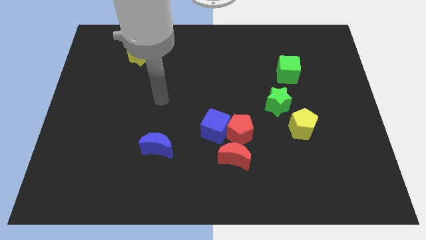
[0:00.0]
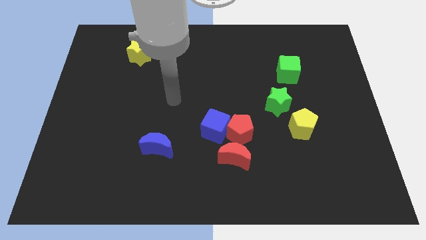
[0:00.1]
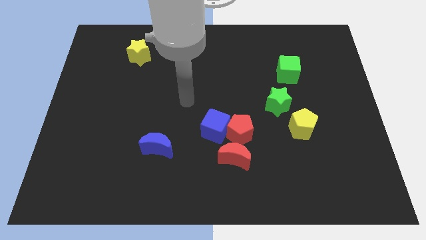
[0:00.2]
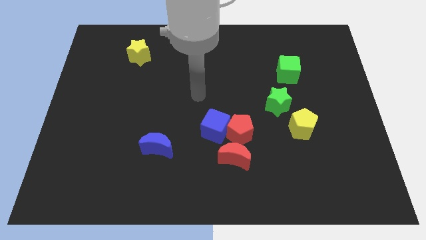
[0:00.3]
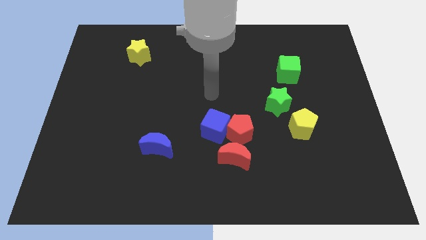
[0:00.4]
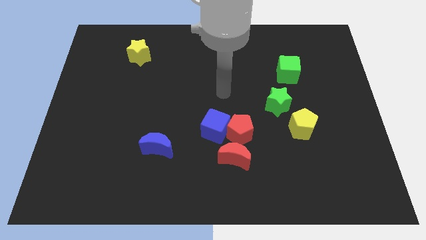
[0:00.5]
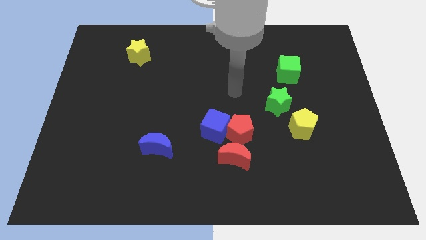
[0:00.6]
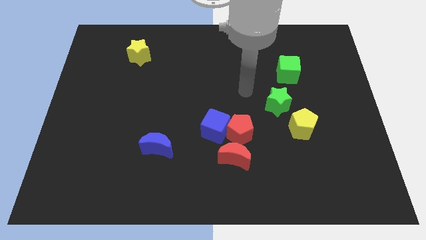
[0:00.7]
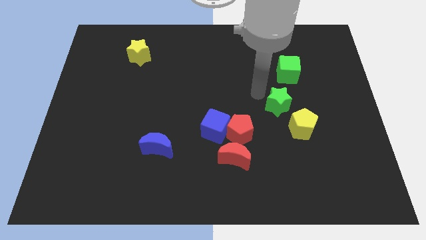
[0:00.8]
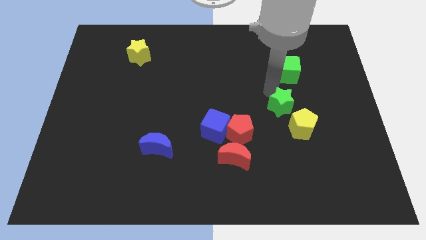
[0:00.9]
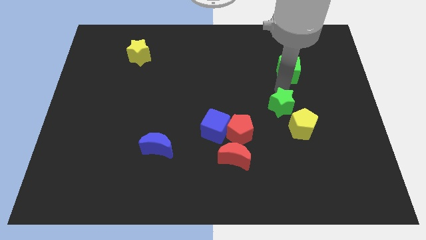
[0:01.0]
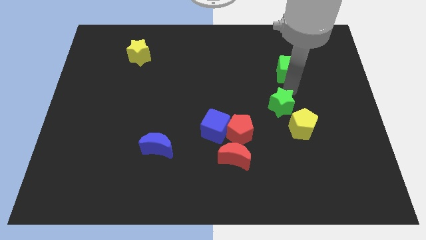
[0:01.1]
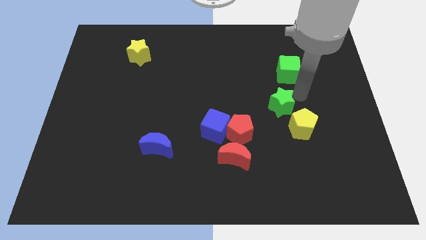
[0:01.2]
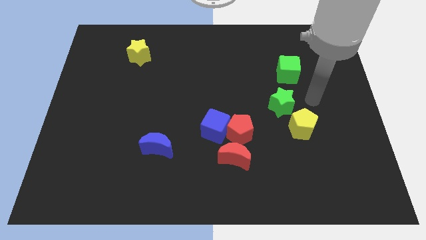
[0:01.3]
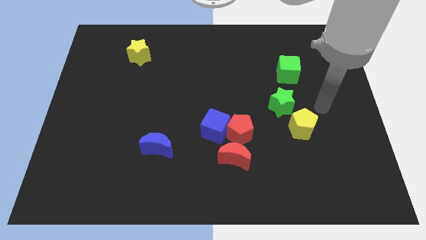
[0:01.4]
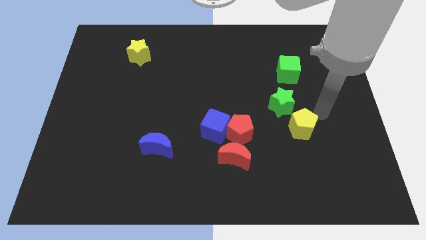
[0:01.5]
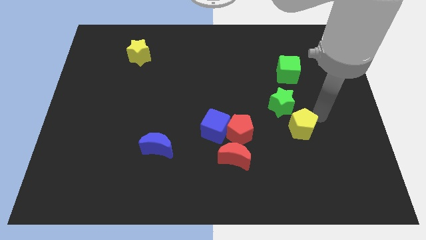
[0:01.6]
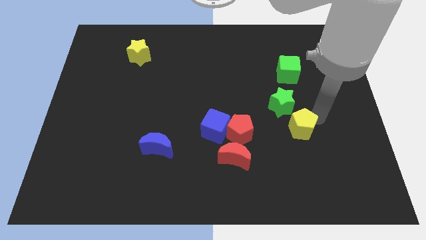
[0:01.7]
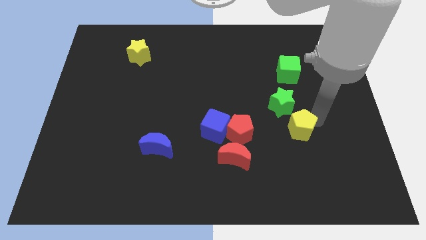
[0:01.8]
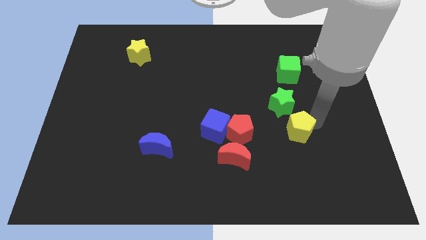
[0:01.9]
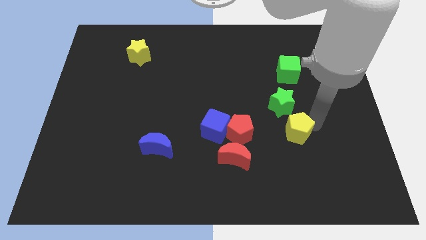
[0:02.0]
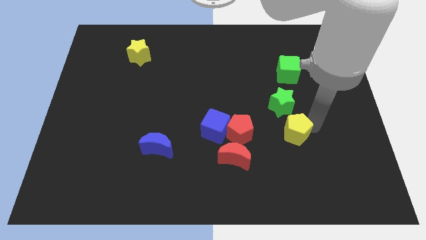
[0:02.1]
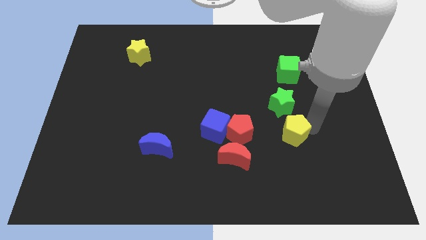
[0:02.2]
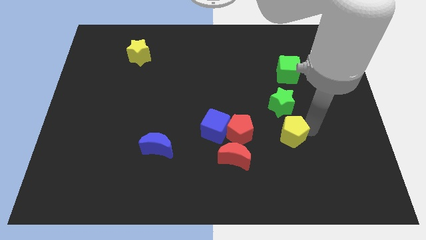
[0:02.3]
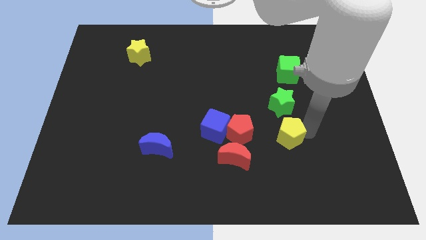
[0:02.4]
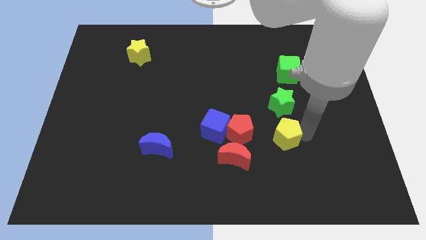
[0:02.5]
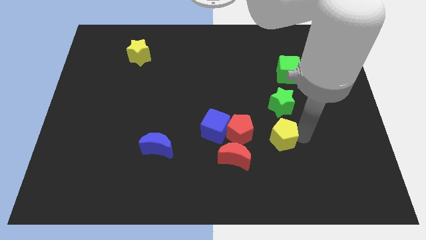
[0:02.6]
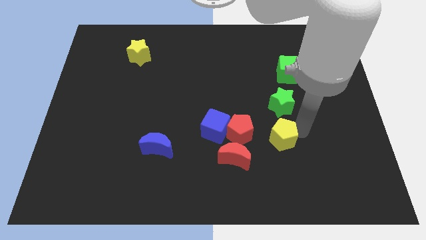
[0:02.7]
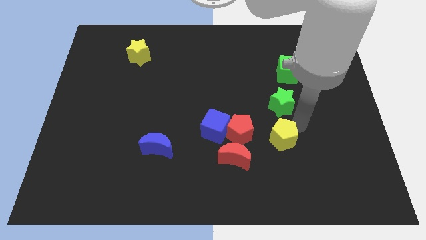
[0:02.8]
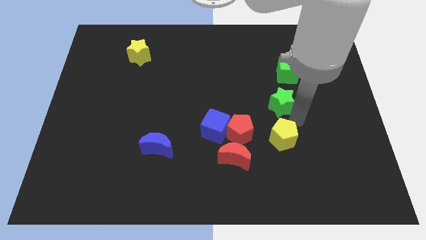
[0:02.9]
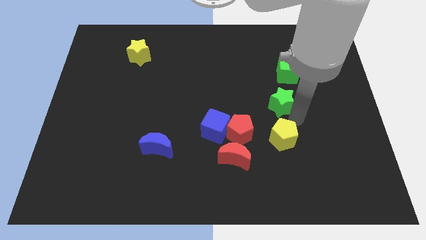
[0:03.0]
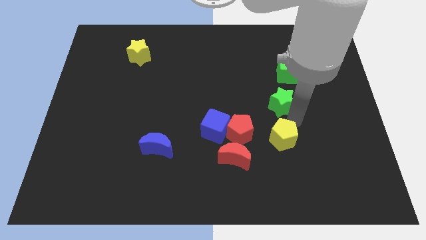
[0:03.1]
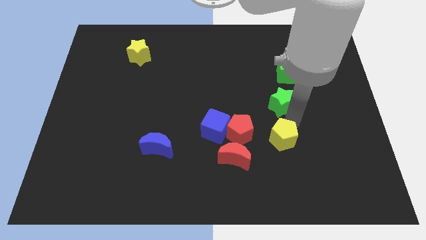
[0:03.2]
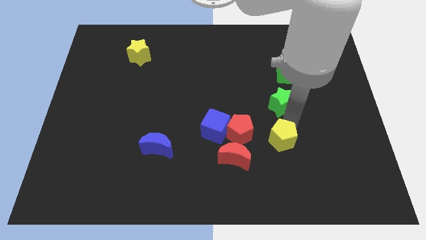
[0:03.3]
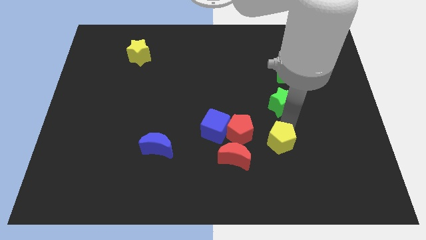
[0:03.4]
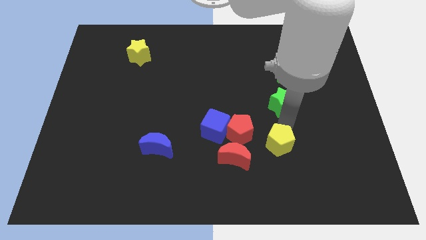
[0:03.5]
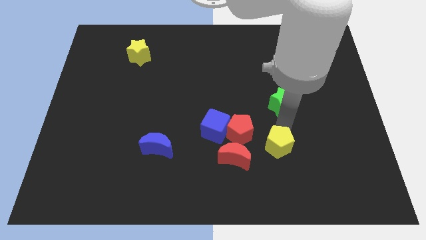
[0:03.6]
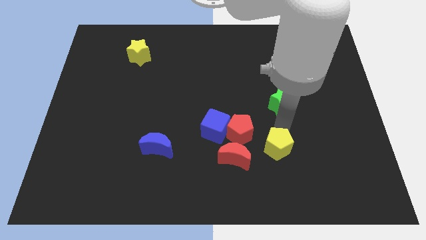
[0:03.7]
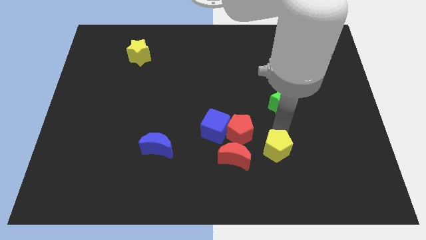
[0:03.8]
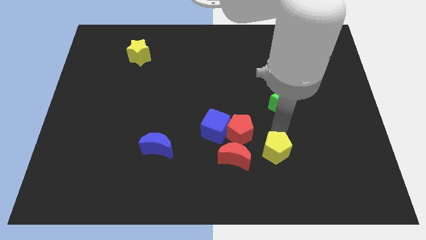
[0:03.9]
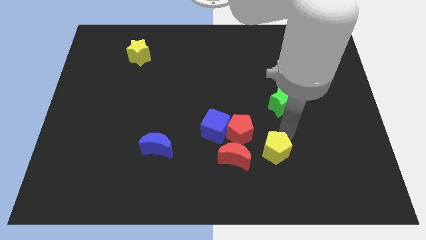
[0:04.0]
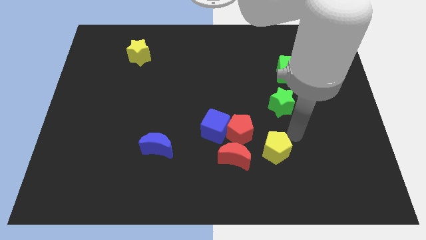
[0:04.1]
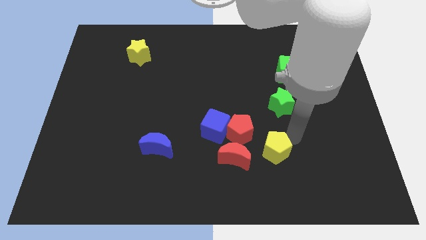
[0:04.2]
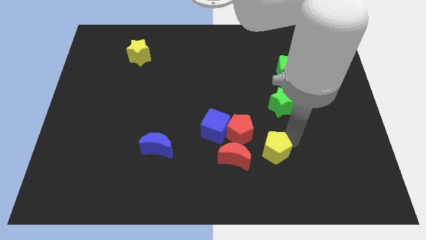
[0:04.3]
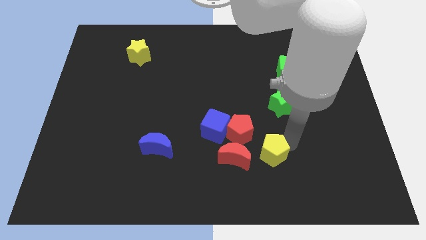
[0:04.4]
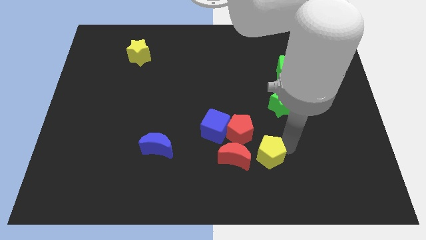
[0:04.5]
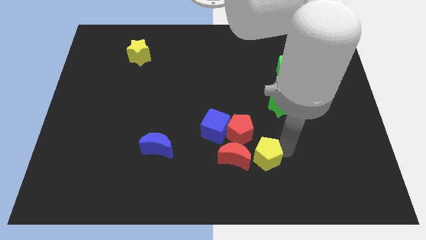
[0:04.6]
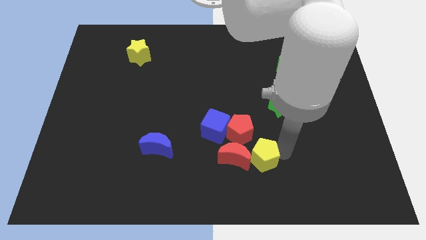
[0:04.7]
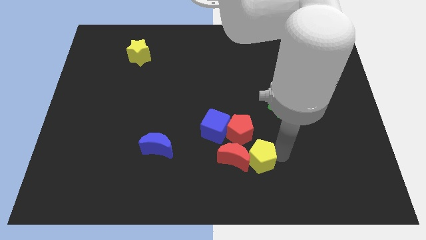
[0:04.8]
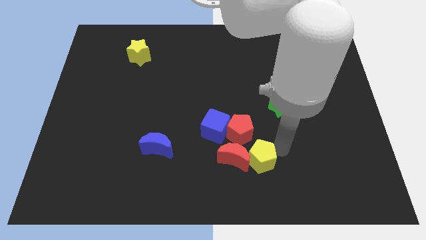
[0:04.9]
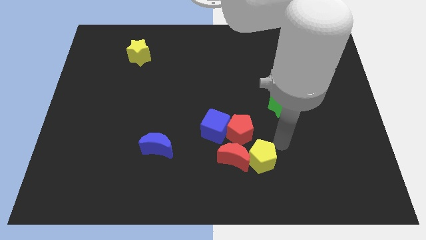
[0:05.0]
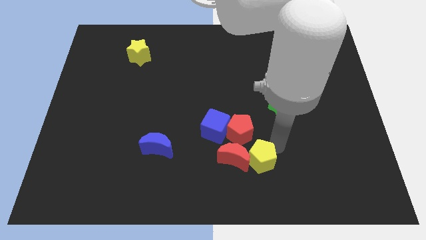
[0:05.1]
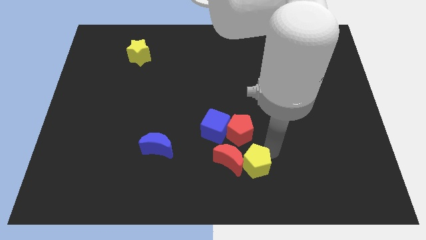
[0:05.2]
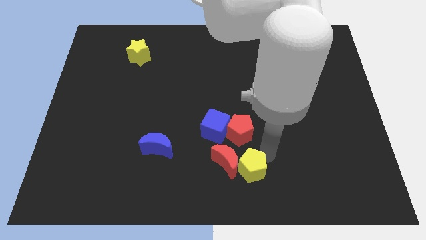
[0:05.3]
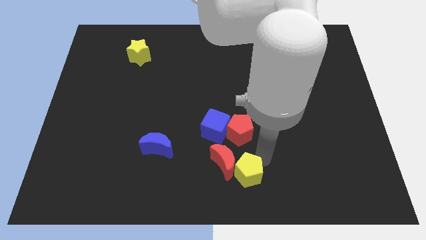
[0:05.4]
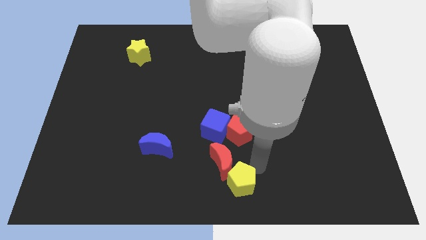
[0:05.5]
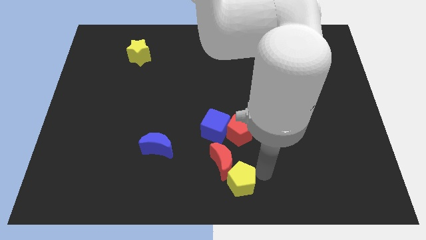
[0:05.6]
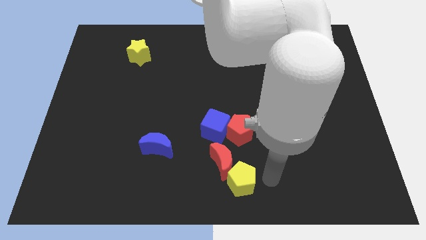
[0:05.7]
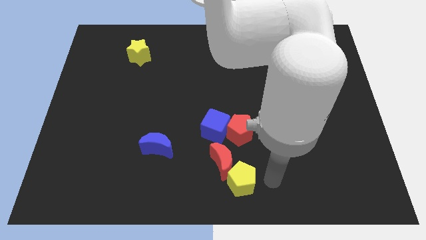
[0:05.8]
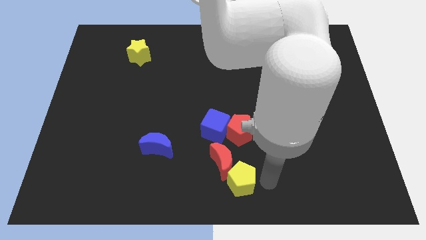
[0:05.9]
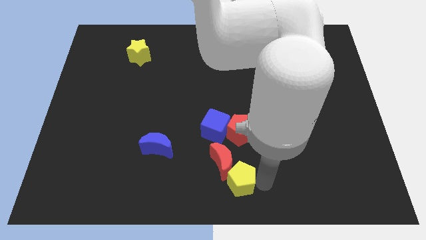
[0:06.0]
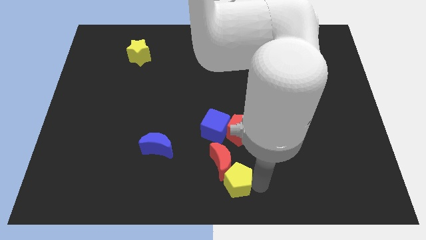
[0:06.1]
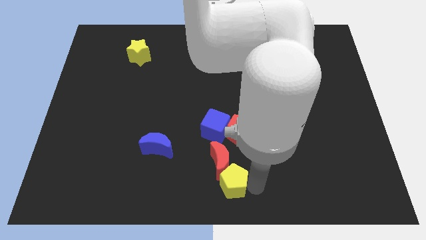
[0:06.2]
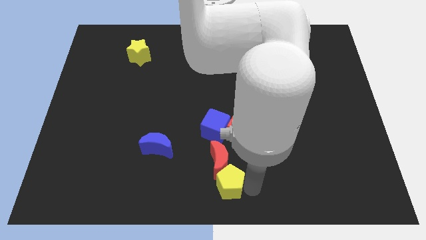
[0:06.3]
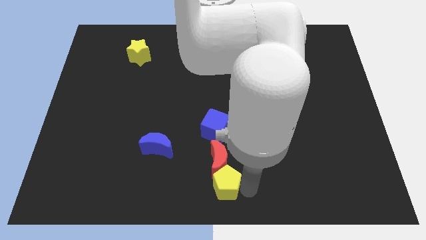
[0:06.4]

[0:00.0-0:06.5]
slide the yellow pentagon diagonally down and to the left of the red moon

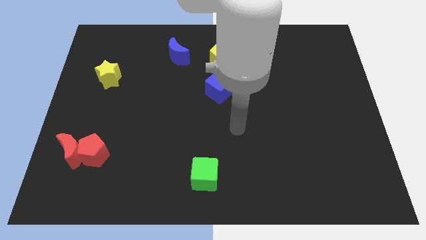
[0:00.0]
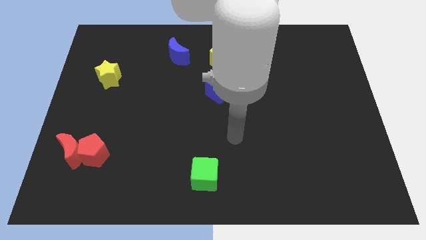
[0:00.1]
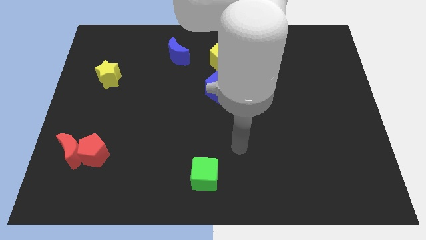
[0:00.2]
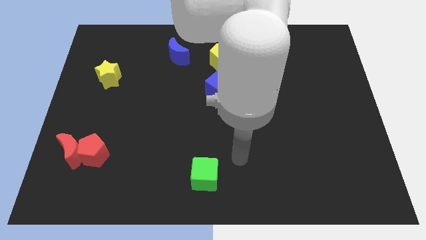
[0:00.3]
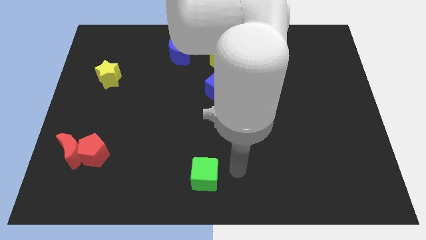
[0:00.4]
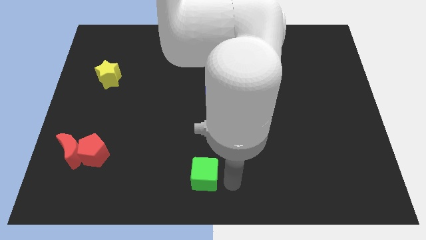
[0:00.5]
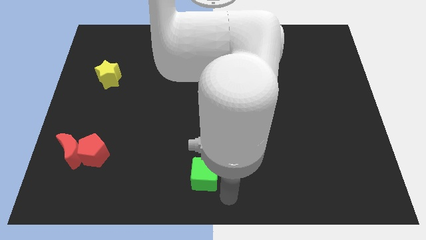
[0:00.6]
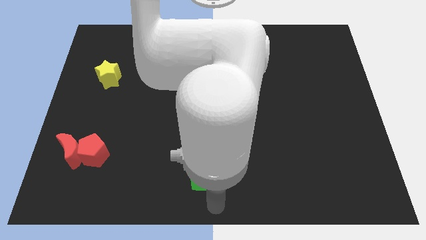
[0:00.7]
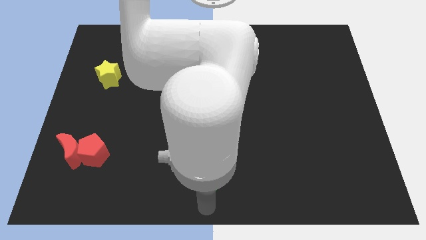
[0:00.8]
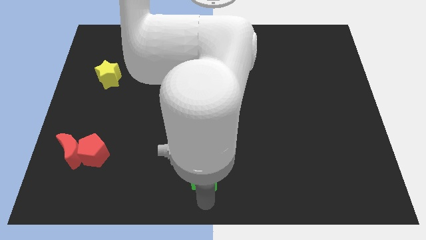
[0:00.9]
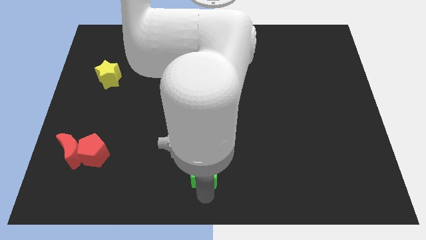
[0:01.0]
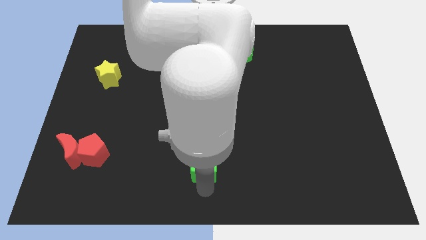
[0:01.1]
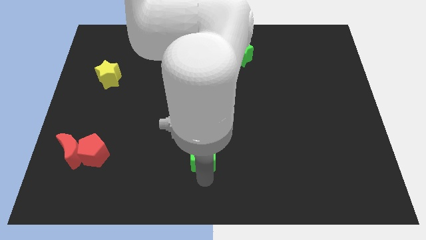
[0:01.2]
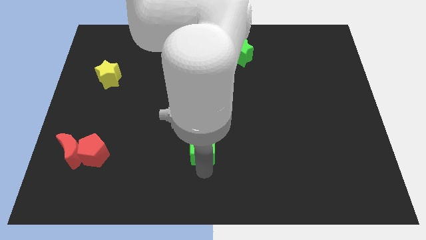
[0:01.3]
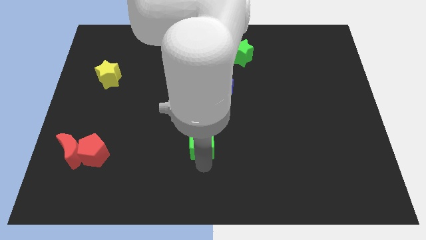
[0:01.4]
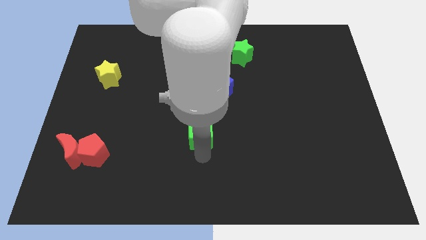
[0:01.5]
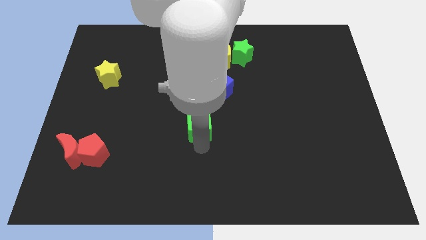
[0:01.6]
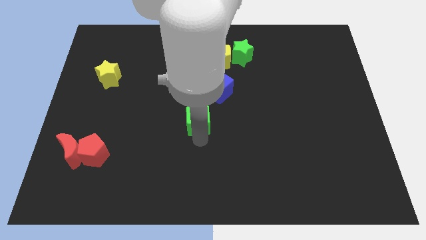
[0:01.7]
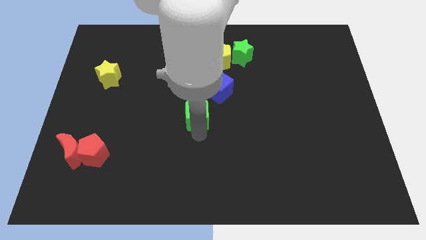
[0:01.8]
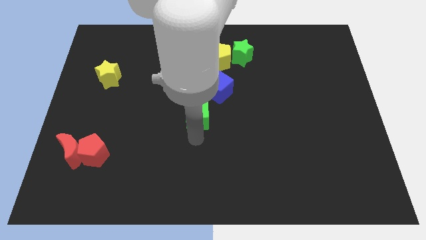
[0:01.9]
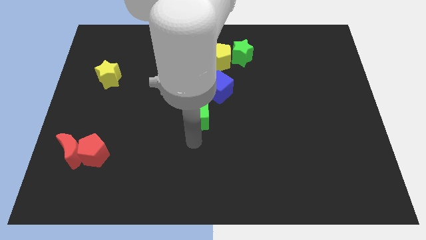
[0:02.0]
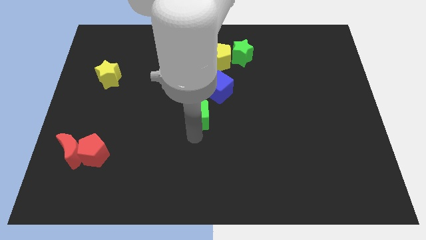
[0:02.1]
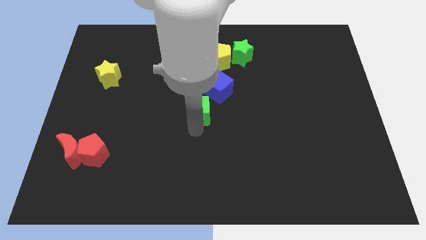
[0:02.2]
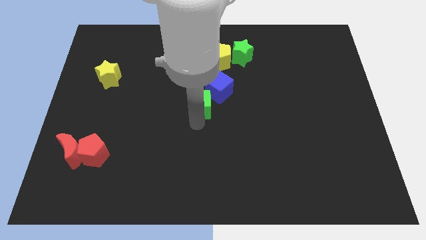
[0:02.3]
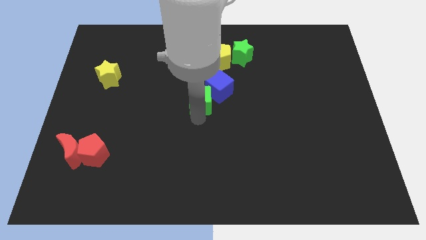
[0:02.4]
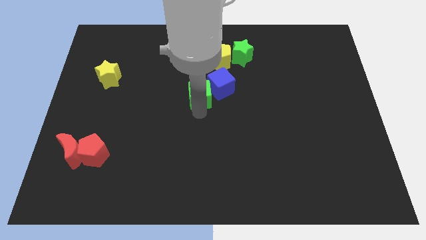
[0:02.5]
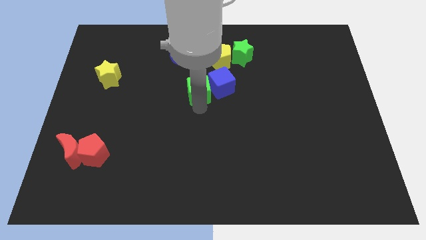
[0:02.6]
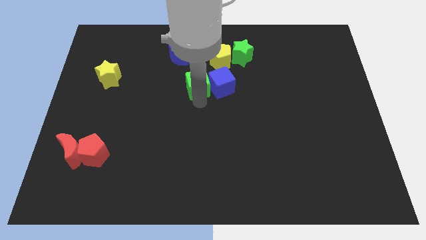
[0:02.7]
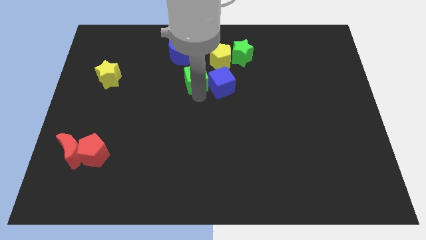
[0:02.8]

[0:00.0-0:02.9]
push the green cube to the bottom right side of the blue moon
